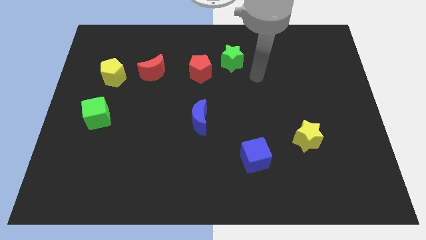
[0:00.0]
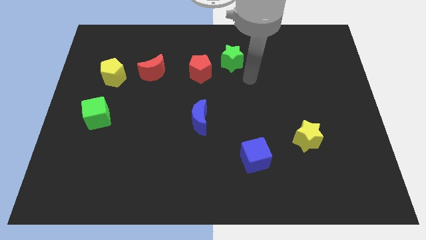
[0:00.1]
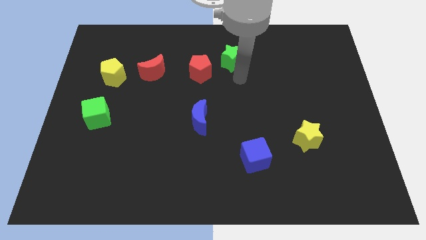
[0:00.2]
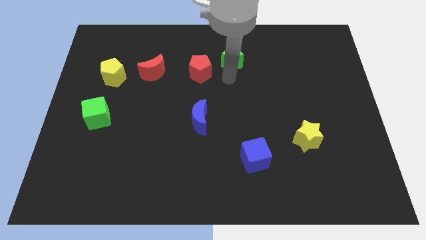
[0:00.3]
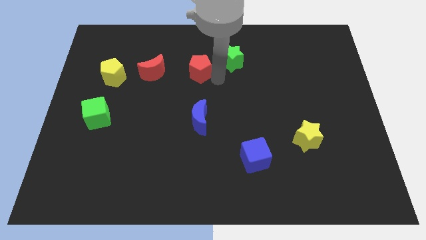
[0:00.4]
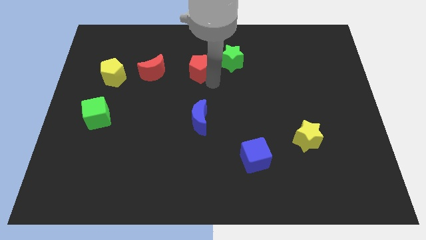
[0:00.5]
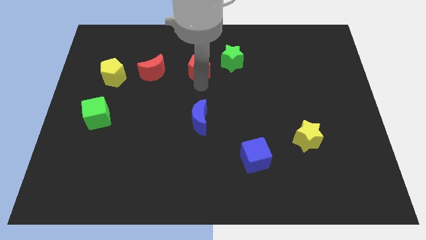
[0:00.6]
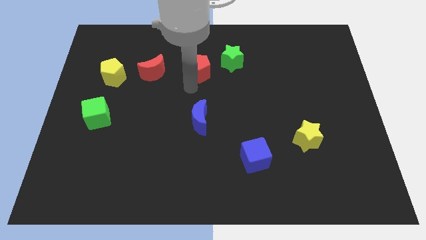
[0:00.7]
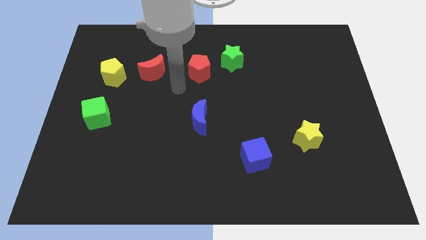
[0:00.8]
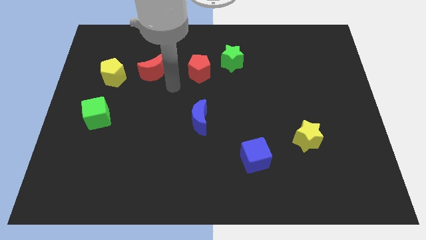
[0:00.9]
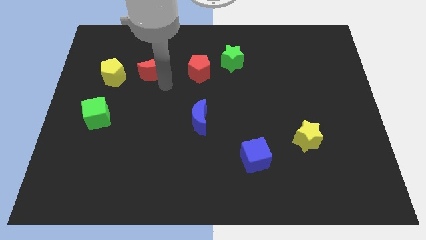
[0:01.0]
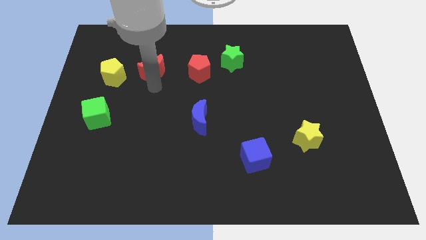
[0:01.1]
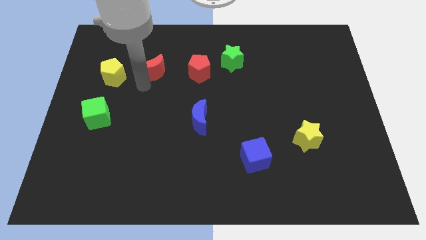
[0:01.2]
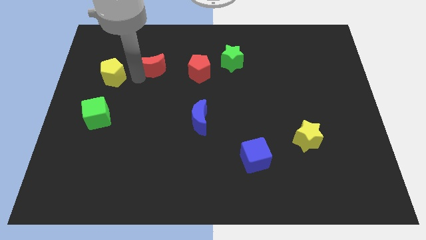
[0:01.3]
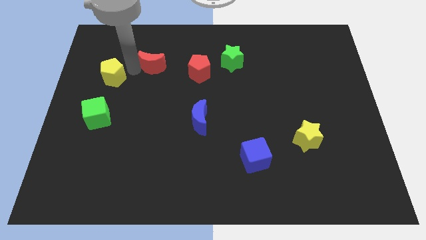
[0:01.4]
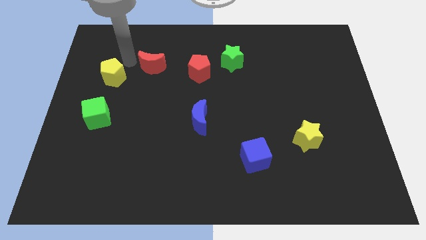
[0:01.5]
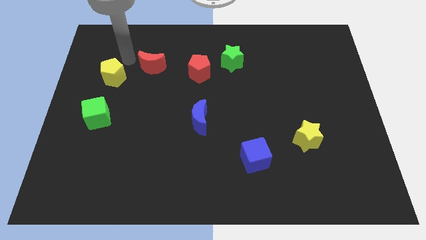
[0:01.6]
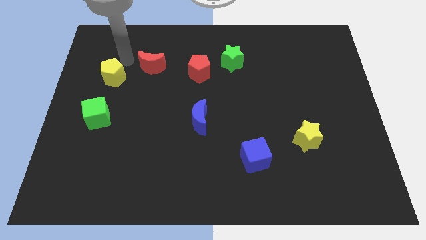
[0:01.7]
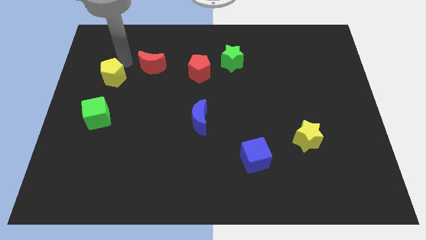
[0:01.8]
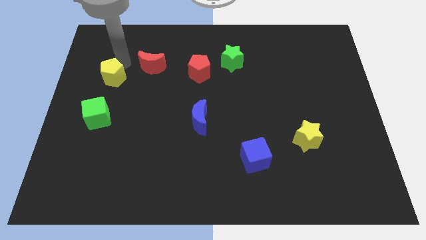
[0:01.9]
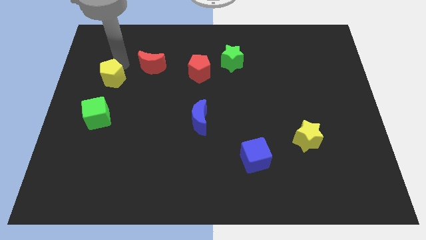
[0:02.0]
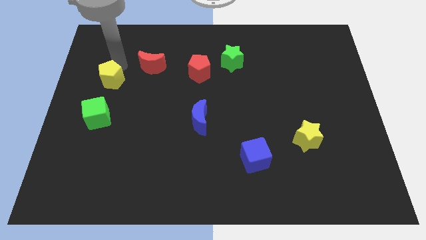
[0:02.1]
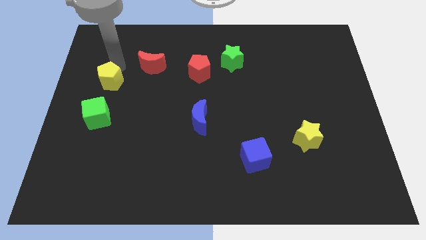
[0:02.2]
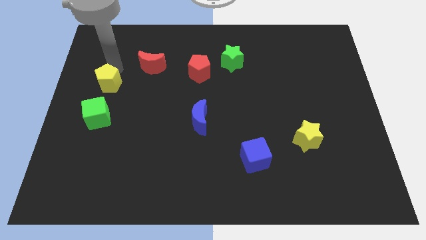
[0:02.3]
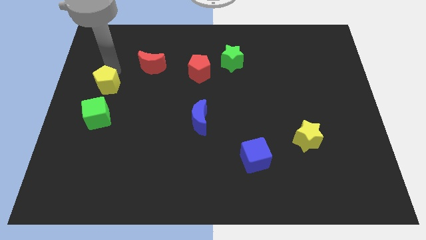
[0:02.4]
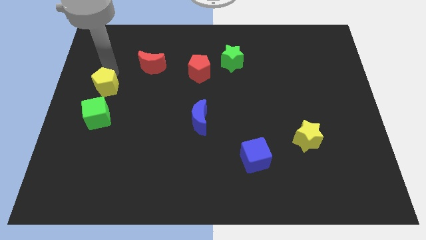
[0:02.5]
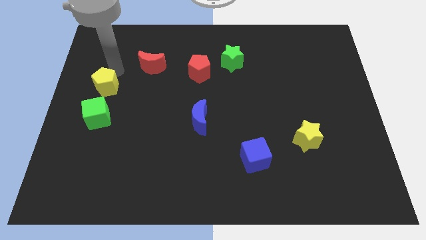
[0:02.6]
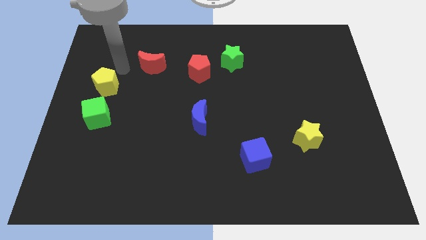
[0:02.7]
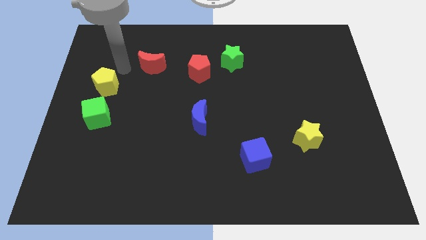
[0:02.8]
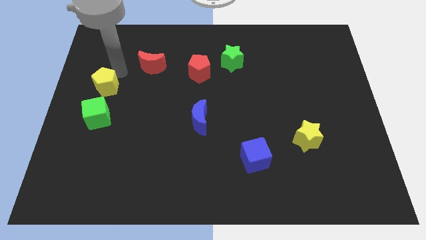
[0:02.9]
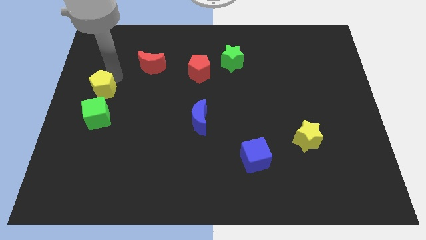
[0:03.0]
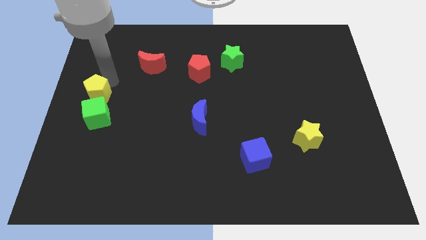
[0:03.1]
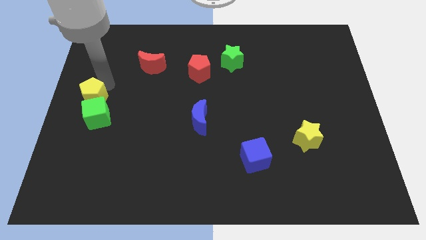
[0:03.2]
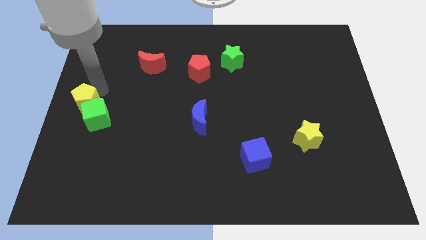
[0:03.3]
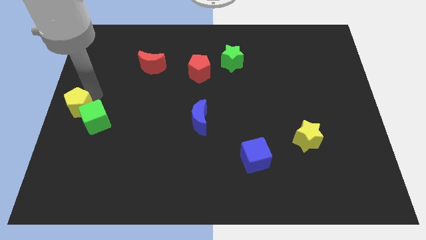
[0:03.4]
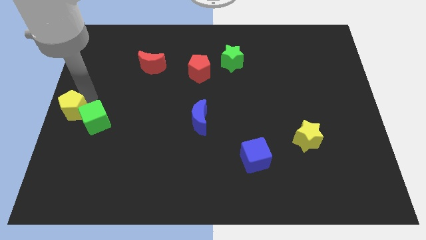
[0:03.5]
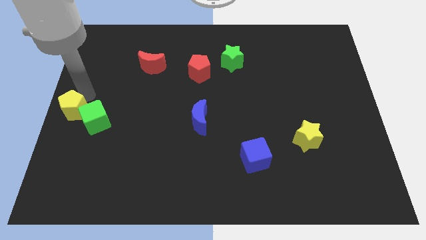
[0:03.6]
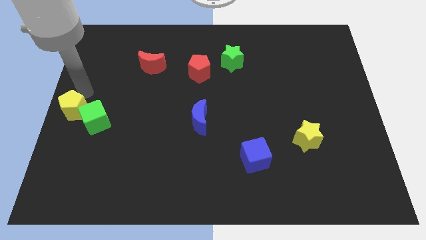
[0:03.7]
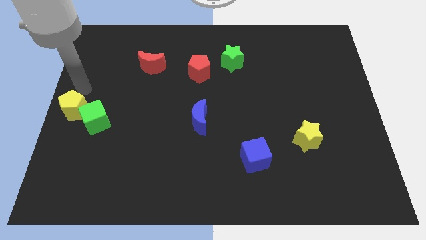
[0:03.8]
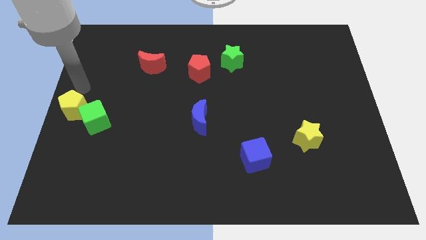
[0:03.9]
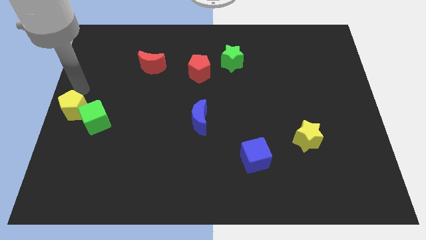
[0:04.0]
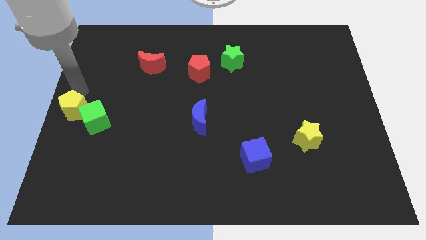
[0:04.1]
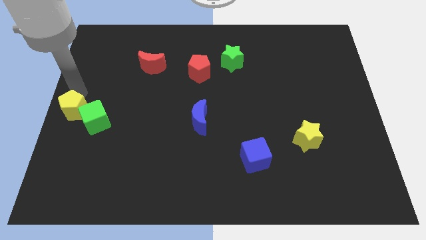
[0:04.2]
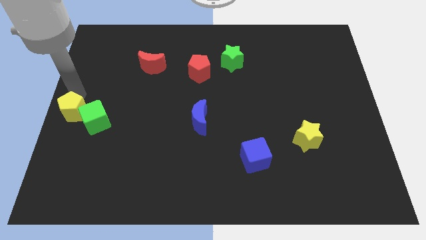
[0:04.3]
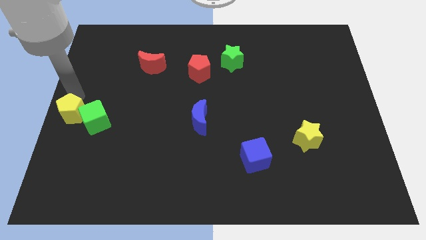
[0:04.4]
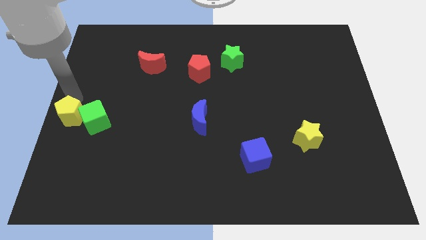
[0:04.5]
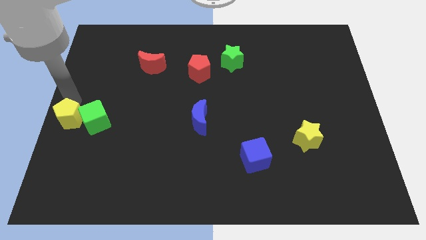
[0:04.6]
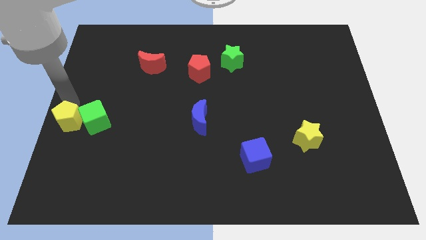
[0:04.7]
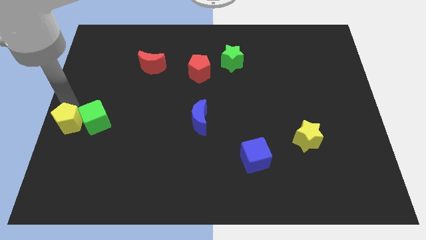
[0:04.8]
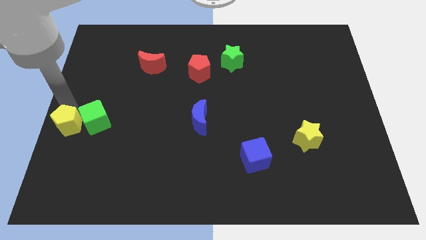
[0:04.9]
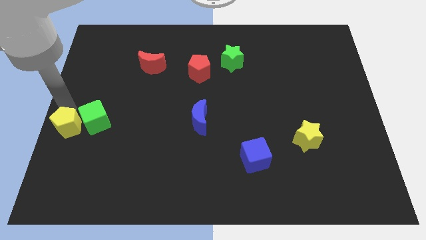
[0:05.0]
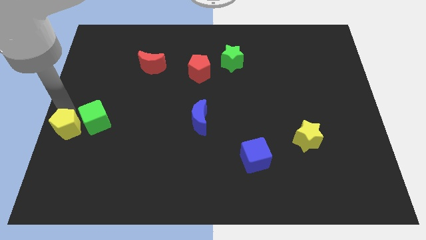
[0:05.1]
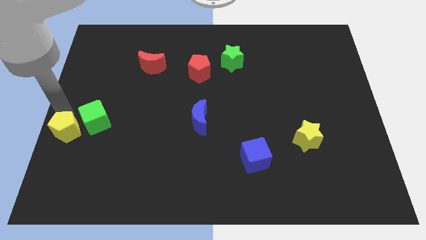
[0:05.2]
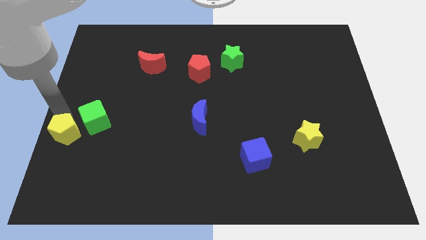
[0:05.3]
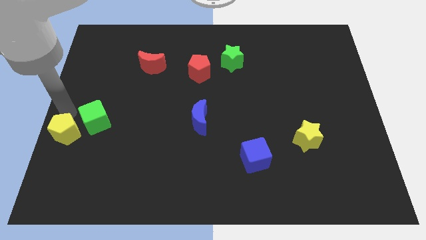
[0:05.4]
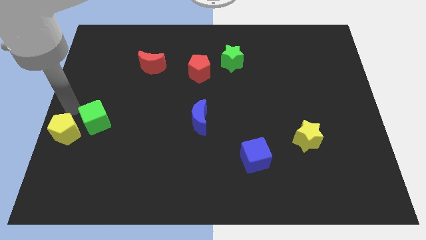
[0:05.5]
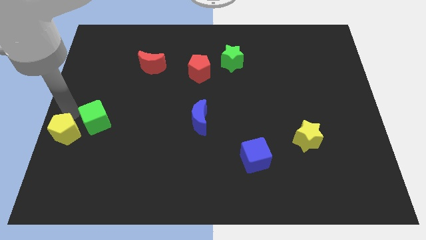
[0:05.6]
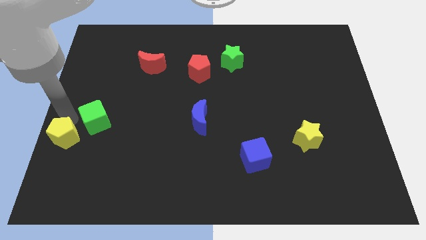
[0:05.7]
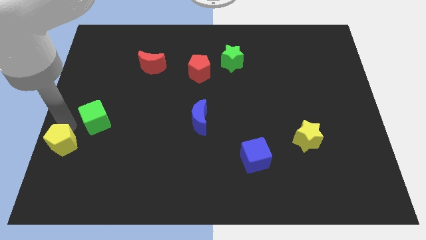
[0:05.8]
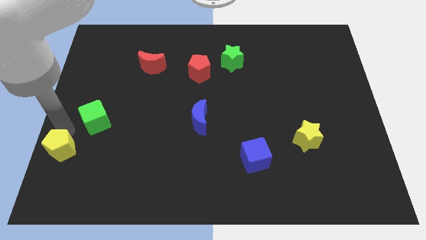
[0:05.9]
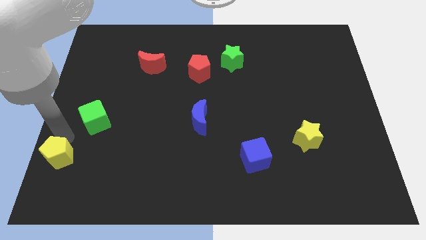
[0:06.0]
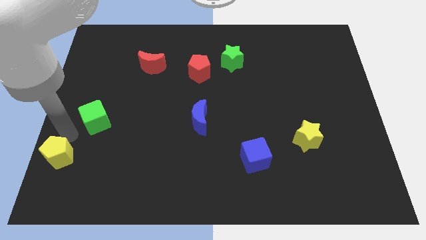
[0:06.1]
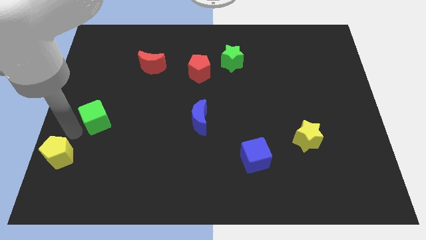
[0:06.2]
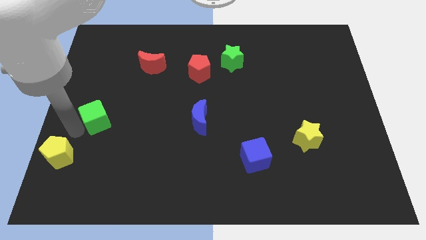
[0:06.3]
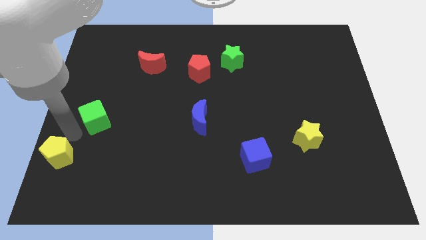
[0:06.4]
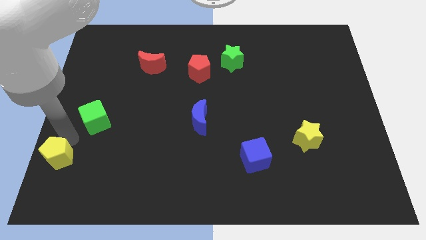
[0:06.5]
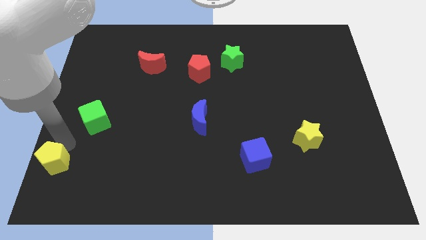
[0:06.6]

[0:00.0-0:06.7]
slide the yellow pentagon to the lower left corner

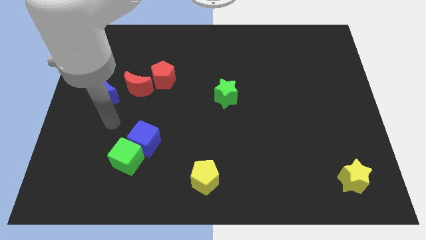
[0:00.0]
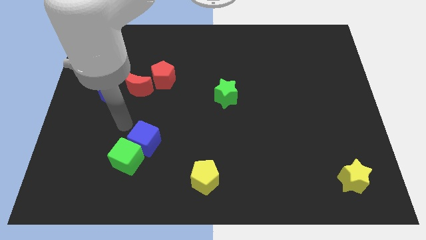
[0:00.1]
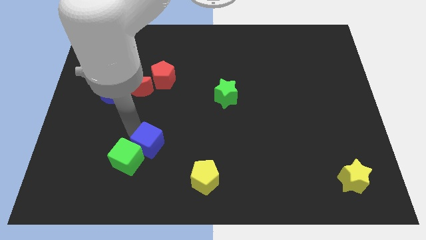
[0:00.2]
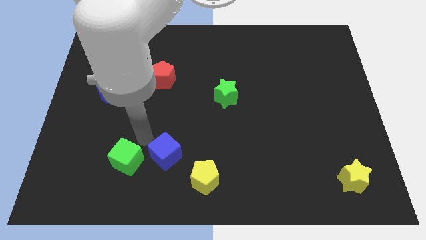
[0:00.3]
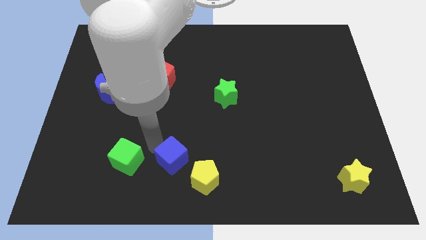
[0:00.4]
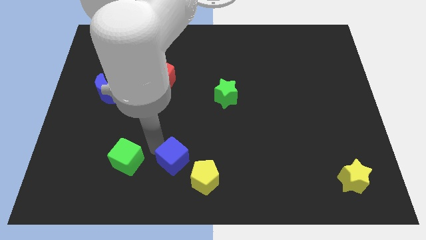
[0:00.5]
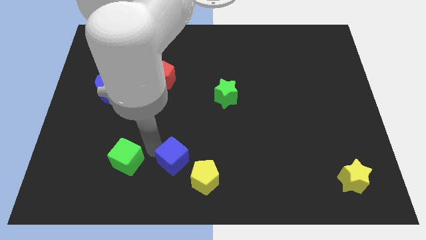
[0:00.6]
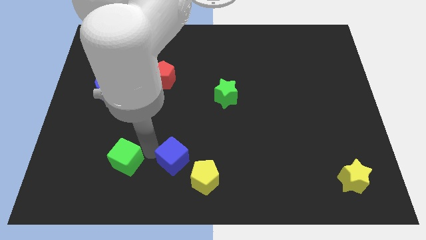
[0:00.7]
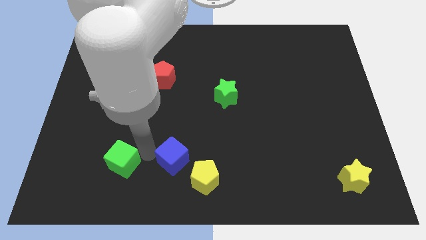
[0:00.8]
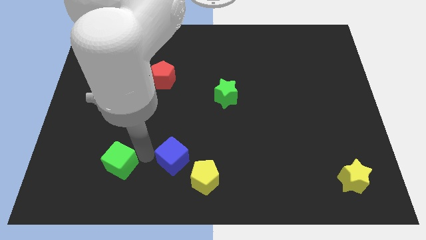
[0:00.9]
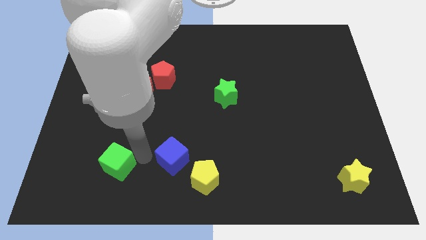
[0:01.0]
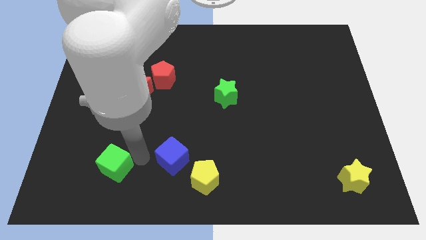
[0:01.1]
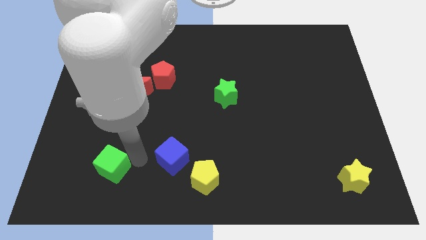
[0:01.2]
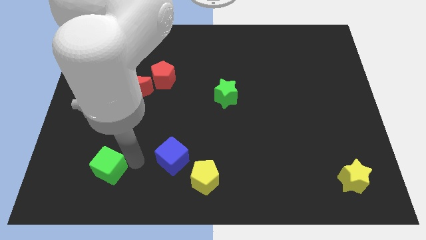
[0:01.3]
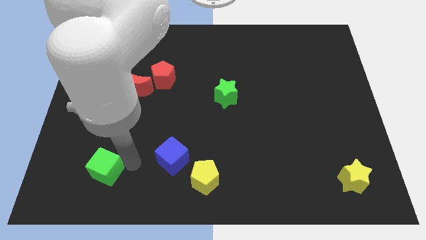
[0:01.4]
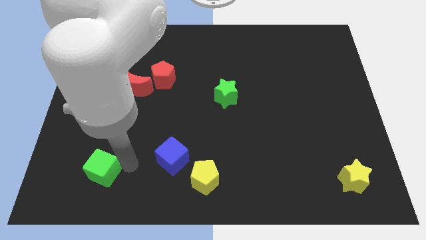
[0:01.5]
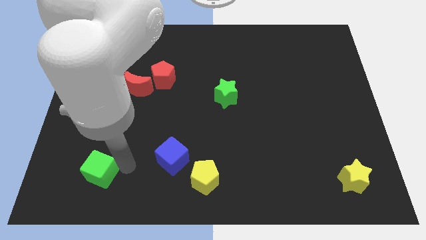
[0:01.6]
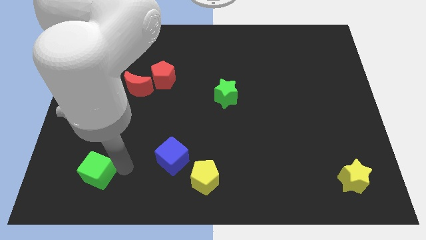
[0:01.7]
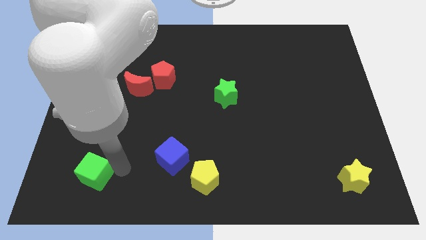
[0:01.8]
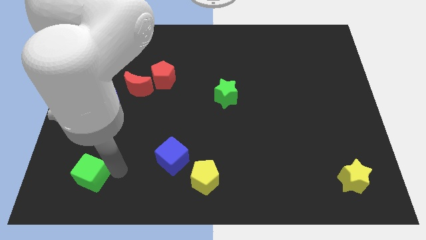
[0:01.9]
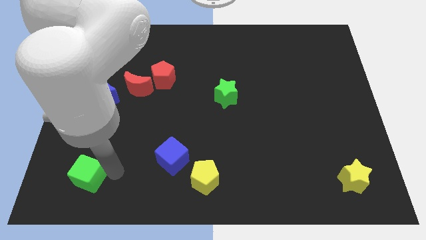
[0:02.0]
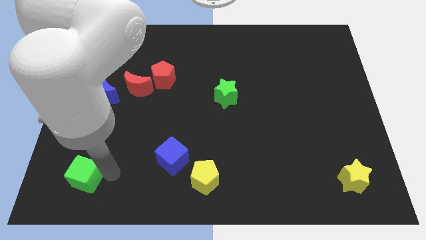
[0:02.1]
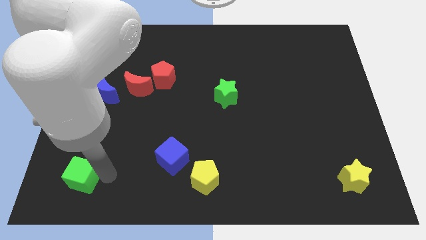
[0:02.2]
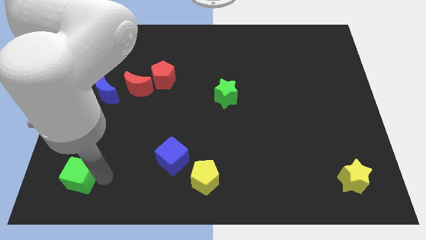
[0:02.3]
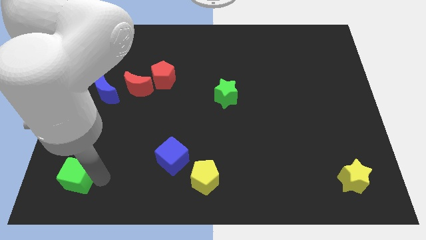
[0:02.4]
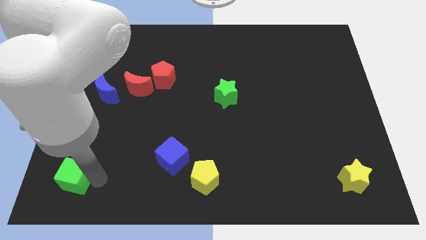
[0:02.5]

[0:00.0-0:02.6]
move the green cube to the bottom left
